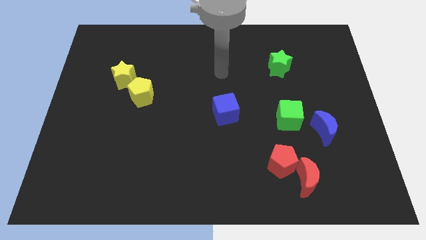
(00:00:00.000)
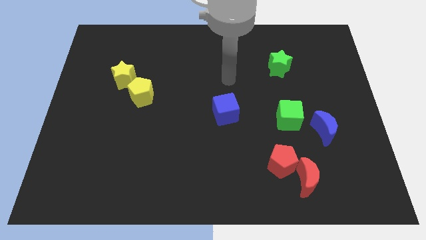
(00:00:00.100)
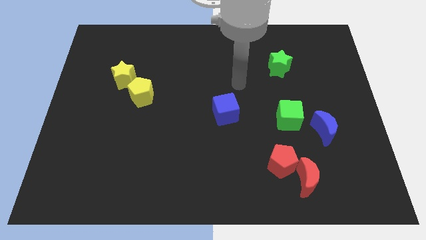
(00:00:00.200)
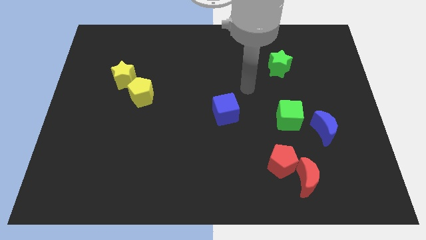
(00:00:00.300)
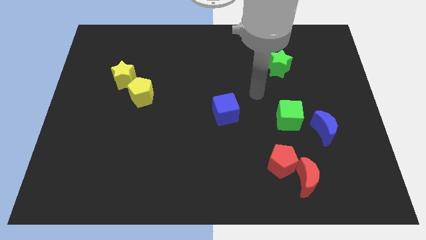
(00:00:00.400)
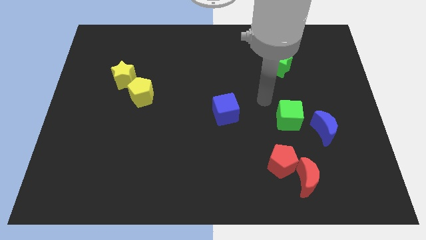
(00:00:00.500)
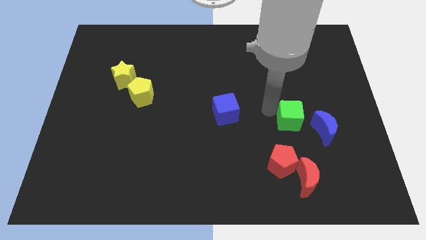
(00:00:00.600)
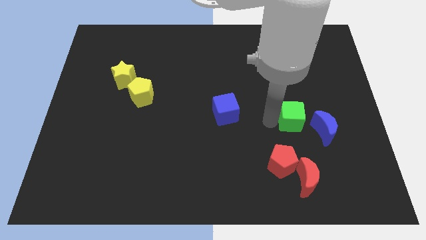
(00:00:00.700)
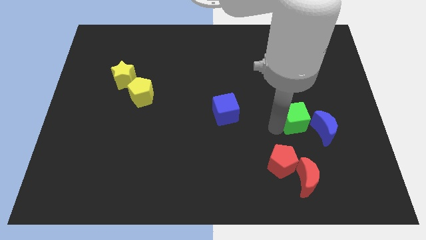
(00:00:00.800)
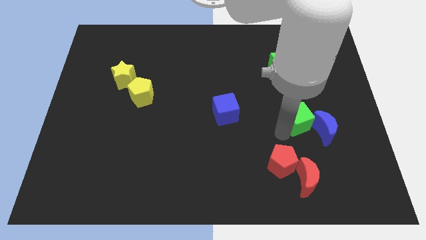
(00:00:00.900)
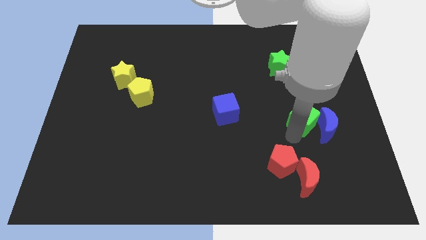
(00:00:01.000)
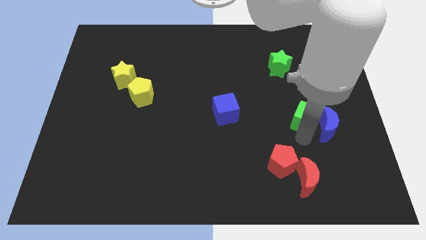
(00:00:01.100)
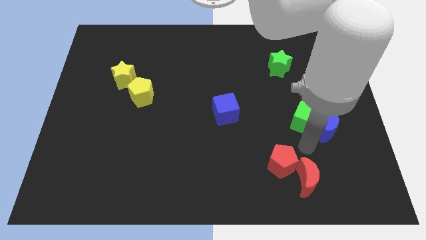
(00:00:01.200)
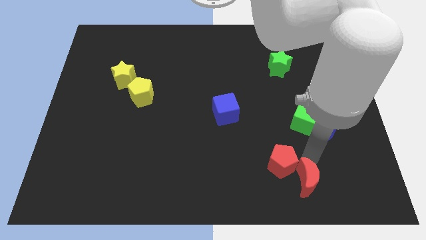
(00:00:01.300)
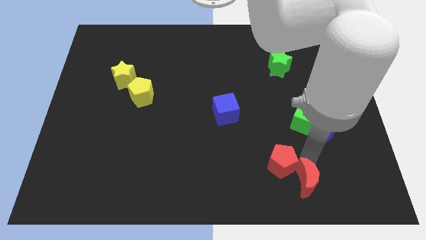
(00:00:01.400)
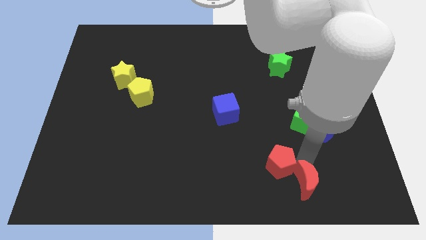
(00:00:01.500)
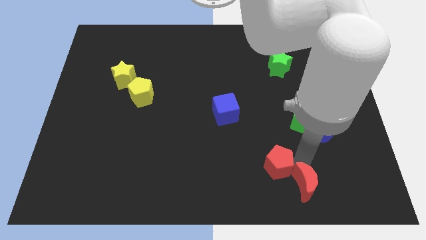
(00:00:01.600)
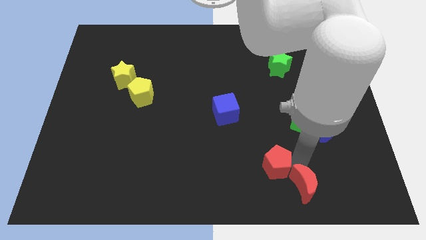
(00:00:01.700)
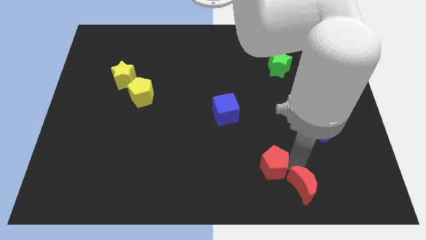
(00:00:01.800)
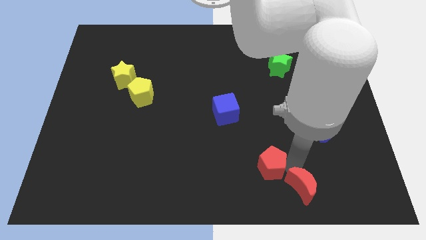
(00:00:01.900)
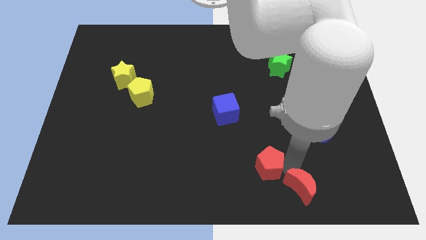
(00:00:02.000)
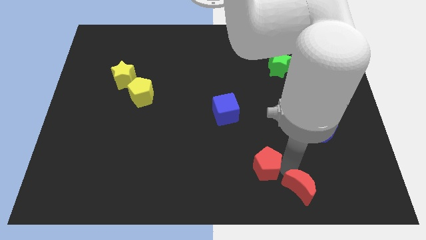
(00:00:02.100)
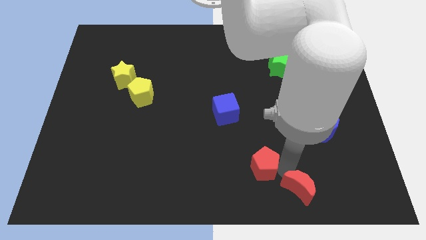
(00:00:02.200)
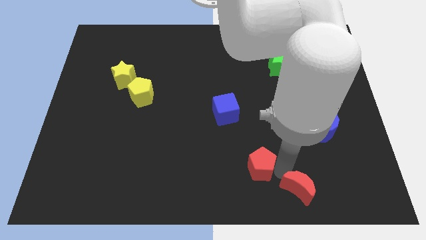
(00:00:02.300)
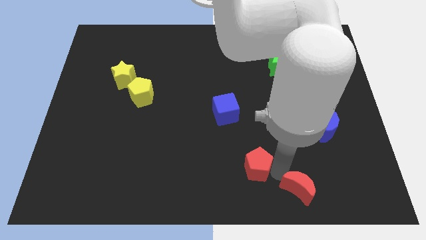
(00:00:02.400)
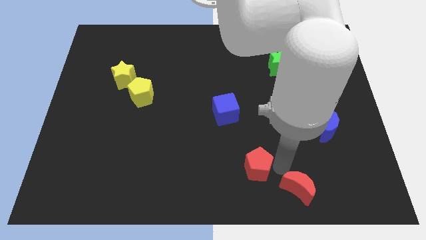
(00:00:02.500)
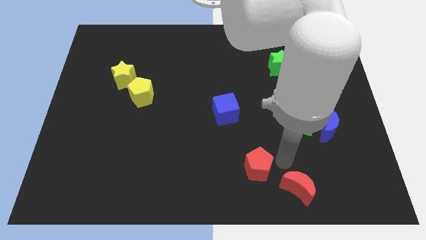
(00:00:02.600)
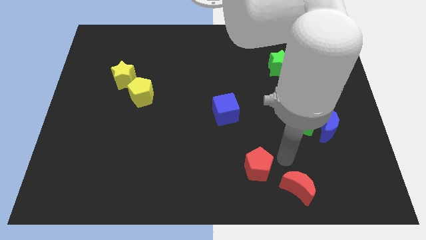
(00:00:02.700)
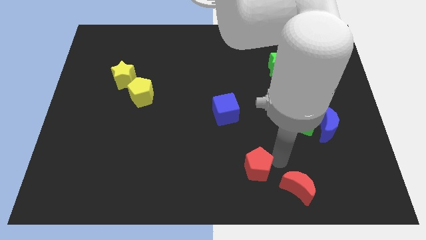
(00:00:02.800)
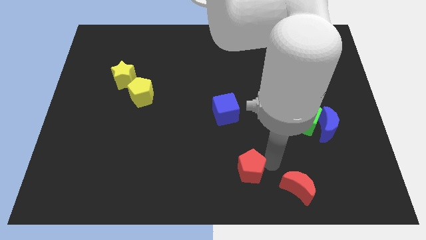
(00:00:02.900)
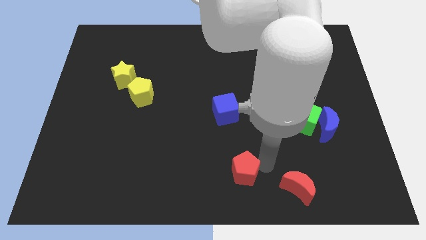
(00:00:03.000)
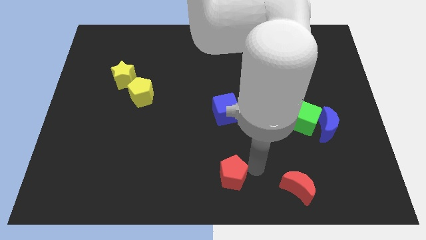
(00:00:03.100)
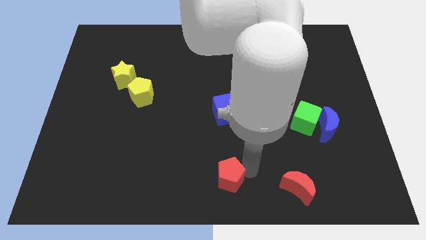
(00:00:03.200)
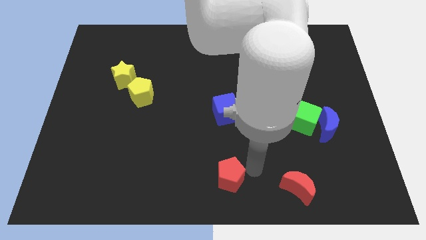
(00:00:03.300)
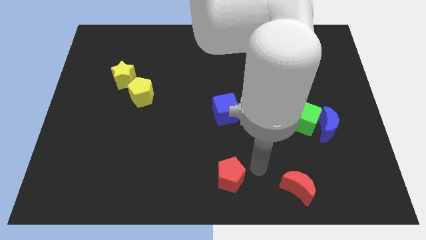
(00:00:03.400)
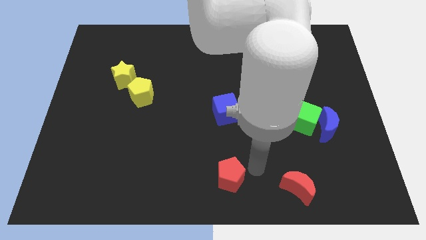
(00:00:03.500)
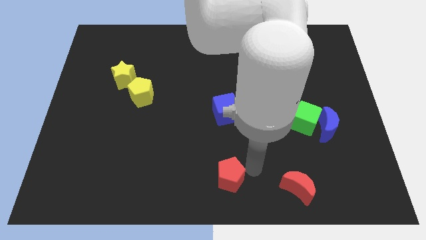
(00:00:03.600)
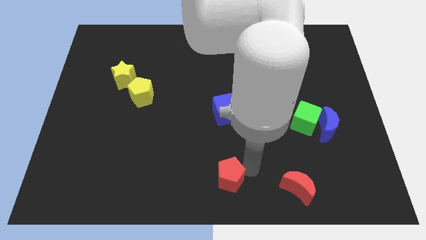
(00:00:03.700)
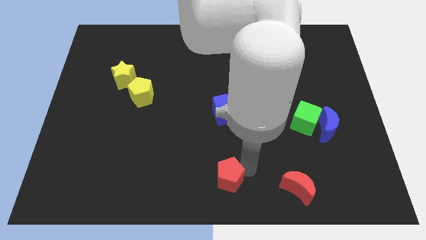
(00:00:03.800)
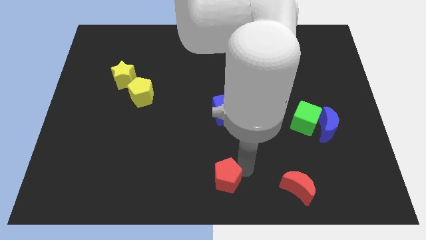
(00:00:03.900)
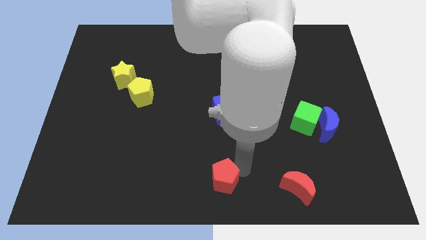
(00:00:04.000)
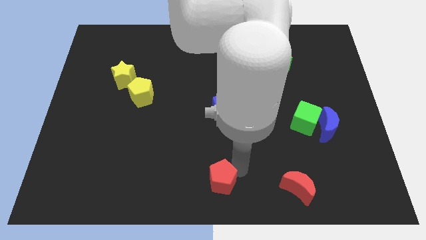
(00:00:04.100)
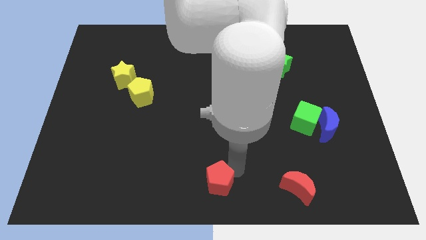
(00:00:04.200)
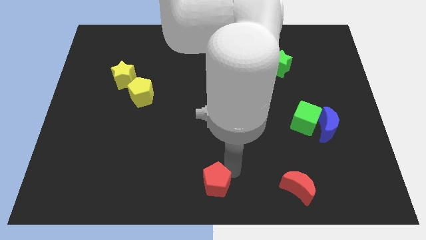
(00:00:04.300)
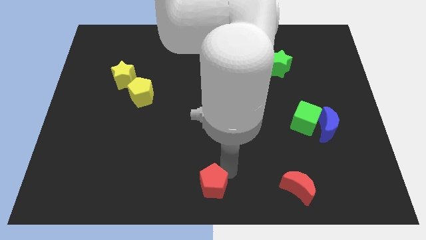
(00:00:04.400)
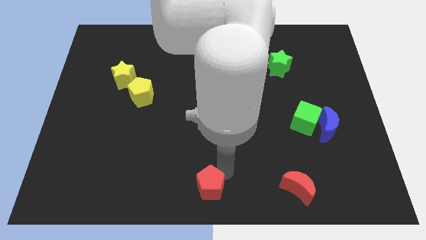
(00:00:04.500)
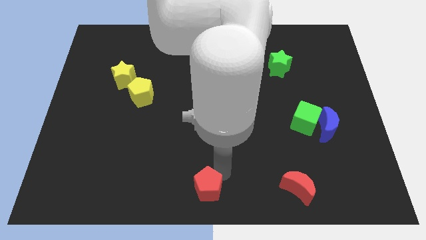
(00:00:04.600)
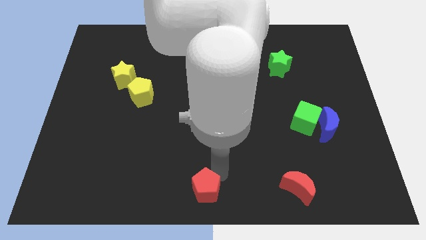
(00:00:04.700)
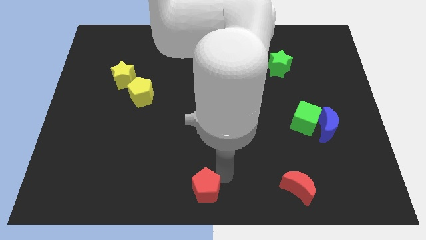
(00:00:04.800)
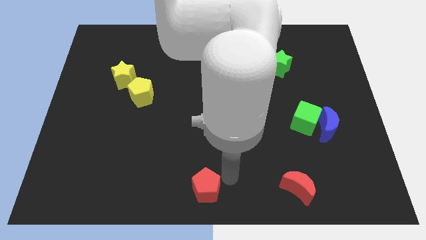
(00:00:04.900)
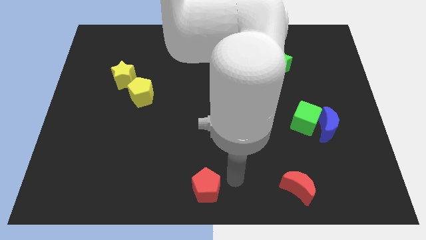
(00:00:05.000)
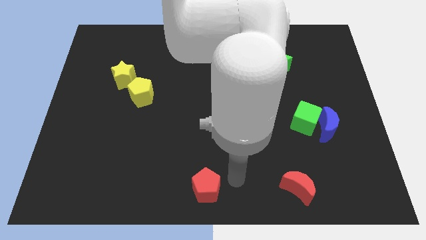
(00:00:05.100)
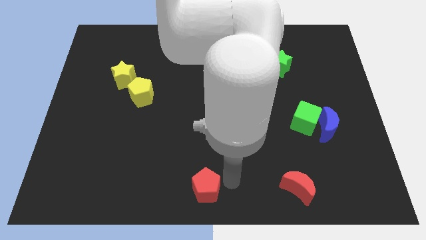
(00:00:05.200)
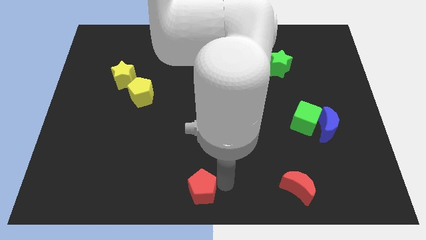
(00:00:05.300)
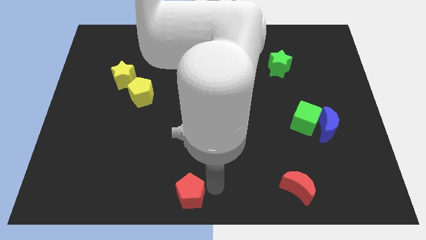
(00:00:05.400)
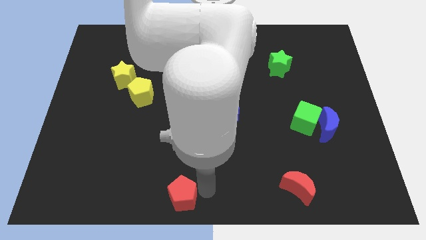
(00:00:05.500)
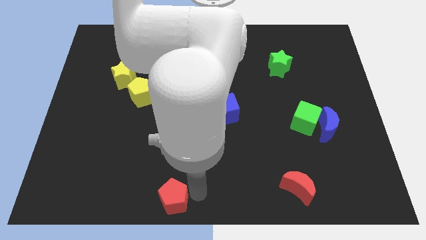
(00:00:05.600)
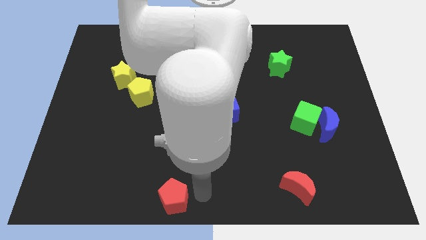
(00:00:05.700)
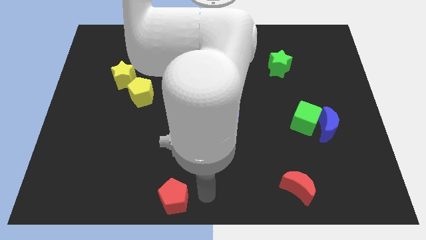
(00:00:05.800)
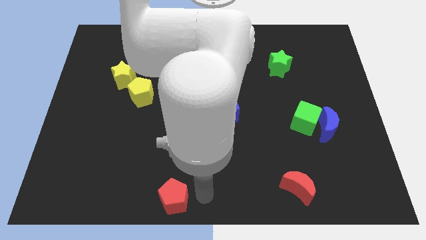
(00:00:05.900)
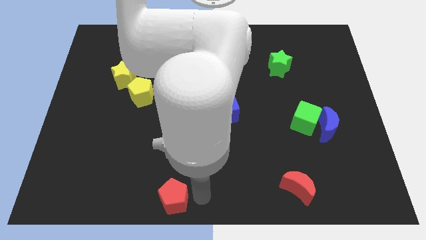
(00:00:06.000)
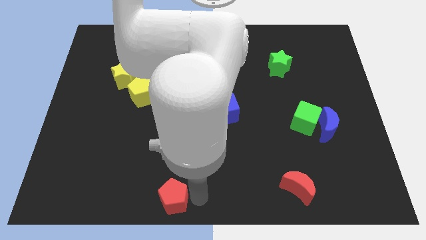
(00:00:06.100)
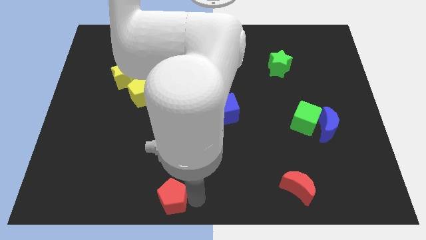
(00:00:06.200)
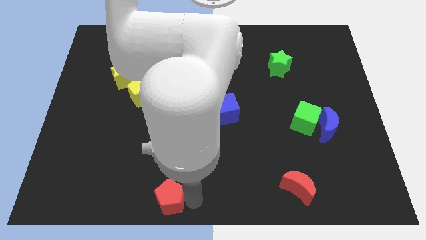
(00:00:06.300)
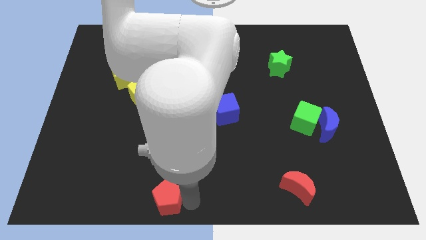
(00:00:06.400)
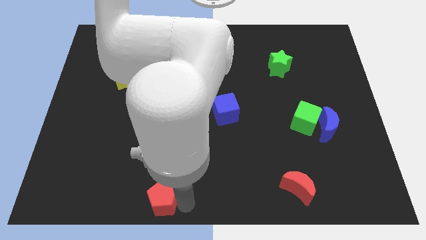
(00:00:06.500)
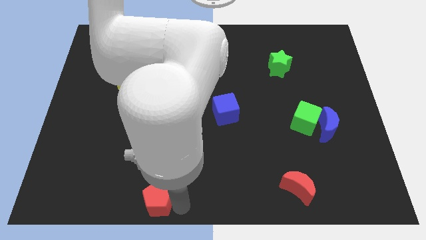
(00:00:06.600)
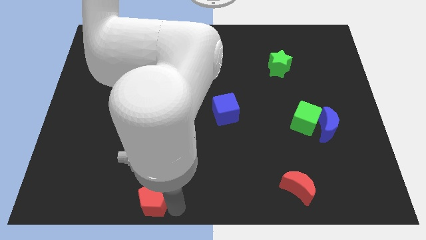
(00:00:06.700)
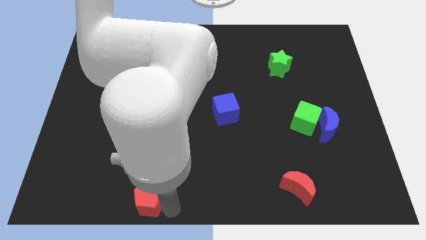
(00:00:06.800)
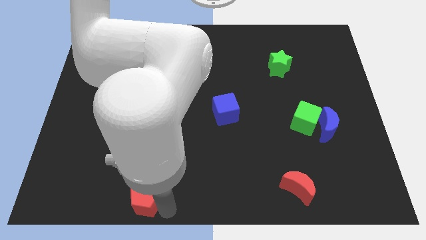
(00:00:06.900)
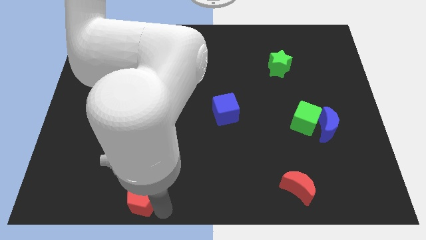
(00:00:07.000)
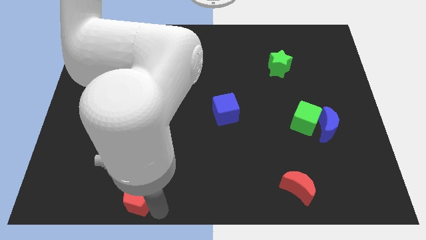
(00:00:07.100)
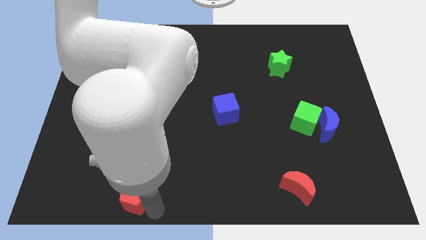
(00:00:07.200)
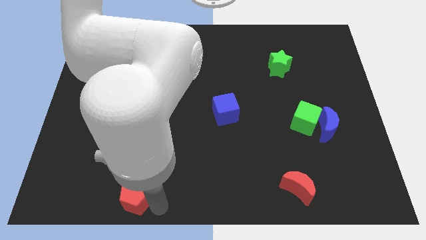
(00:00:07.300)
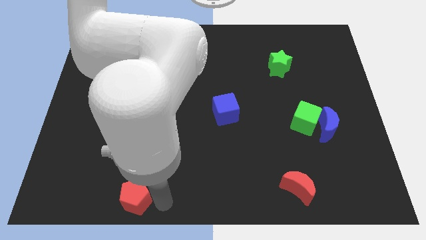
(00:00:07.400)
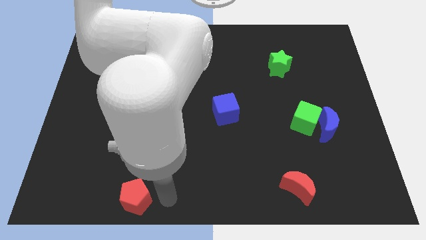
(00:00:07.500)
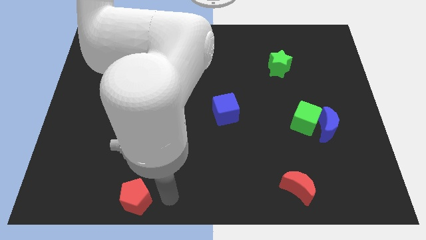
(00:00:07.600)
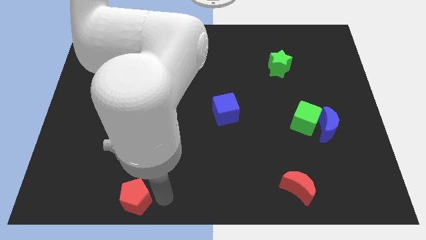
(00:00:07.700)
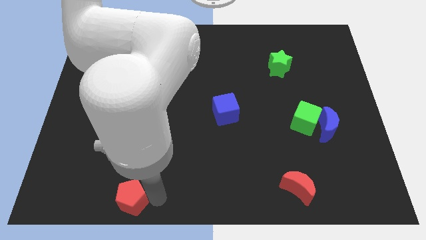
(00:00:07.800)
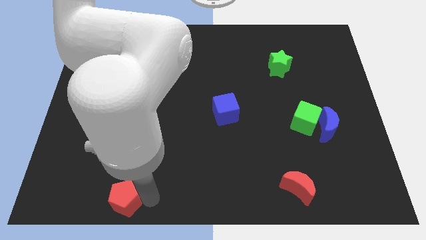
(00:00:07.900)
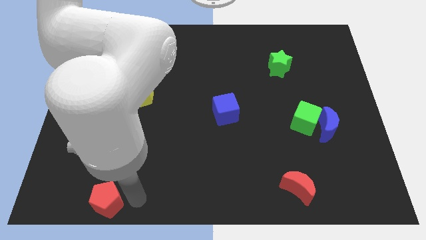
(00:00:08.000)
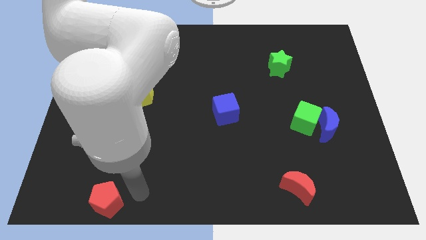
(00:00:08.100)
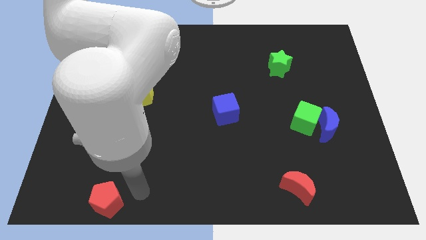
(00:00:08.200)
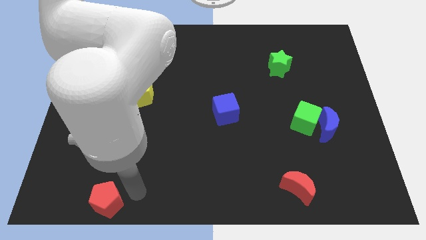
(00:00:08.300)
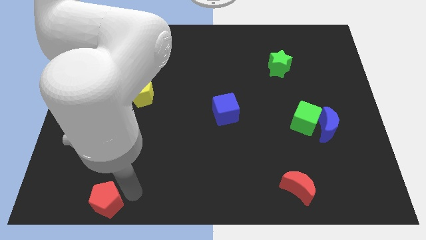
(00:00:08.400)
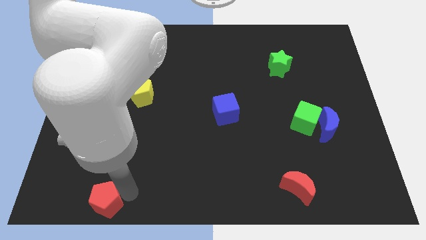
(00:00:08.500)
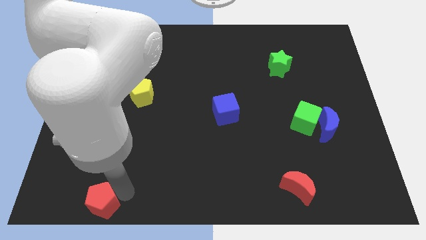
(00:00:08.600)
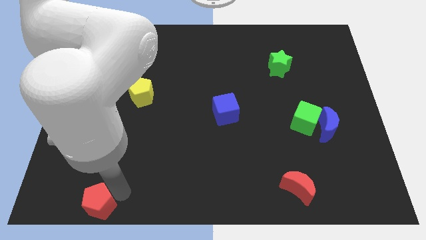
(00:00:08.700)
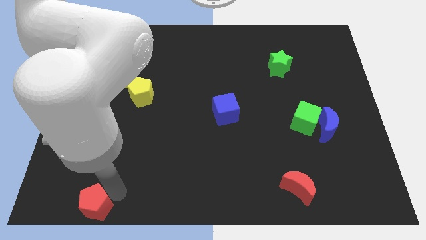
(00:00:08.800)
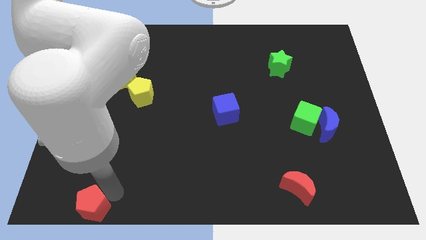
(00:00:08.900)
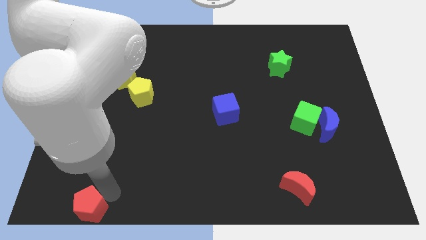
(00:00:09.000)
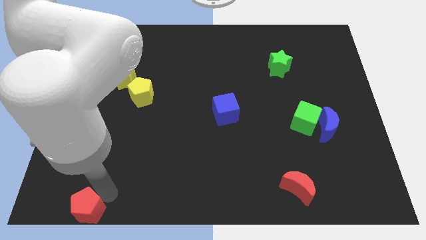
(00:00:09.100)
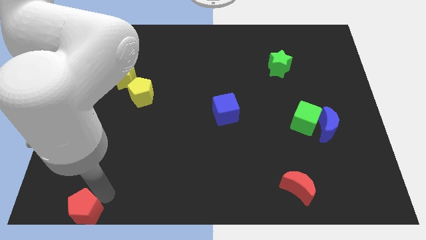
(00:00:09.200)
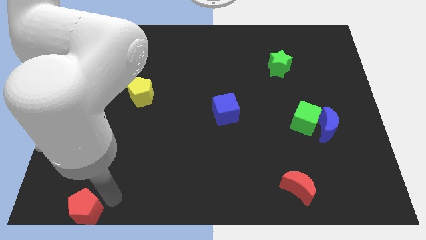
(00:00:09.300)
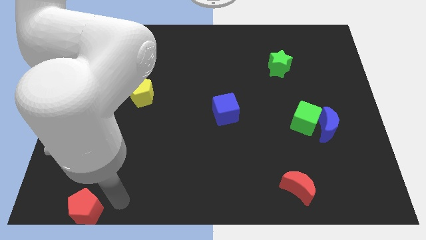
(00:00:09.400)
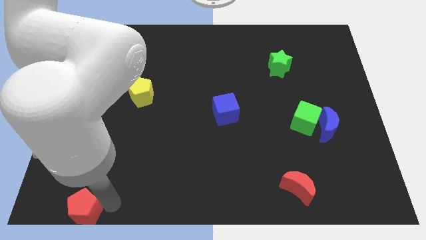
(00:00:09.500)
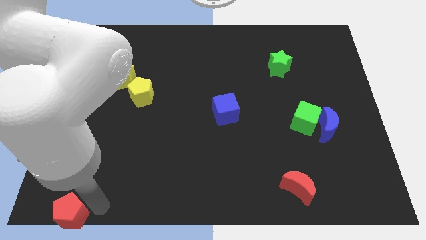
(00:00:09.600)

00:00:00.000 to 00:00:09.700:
move the red pentagon to the bottom left of the board
